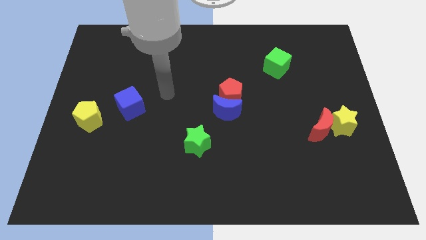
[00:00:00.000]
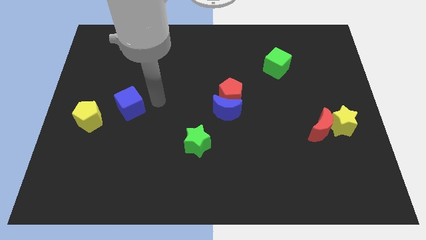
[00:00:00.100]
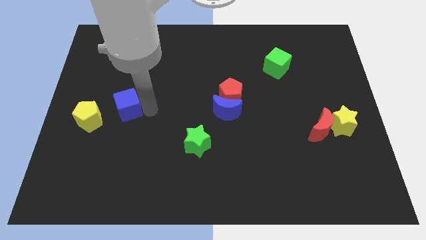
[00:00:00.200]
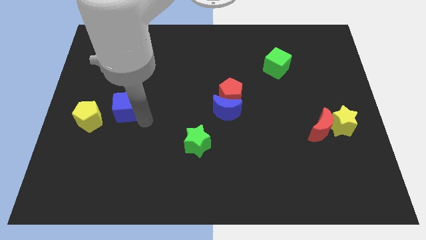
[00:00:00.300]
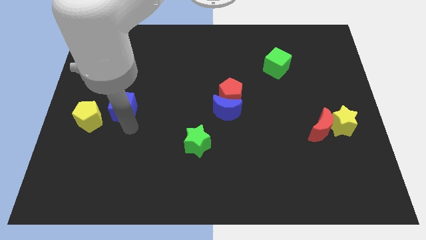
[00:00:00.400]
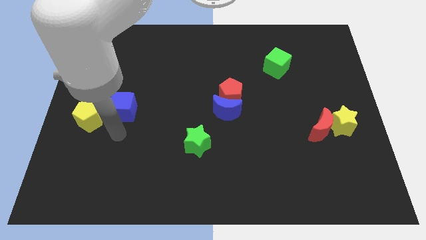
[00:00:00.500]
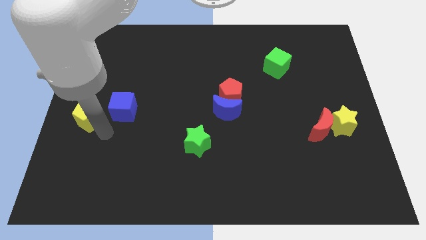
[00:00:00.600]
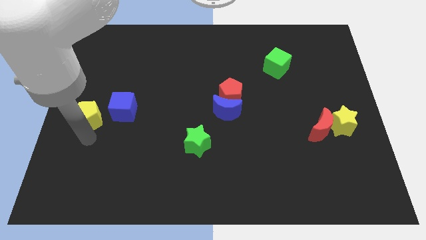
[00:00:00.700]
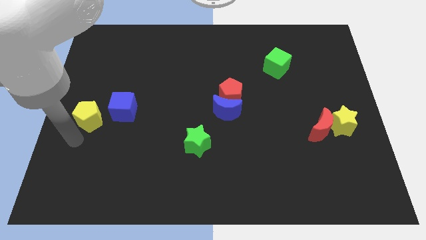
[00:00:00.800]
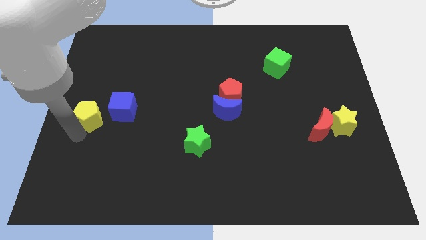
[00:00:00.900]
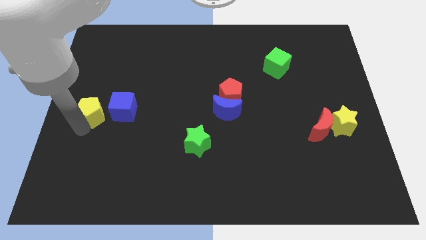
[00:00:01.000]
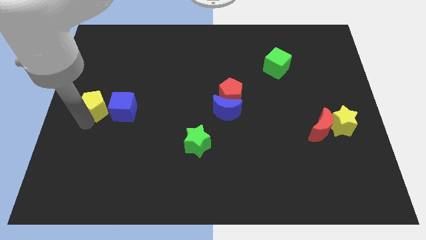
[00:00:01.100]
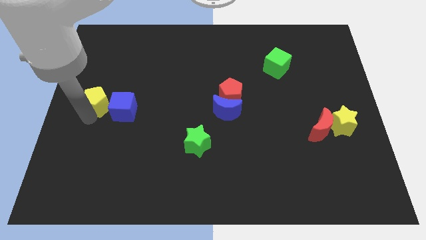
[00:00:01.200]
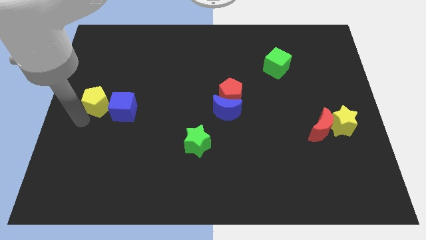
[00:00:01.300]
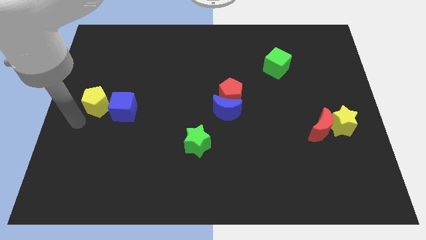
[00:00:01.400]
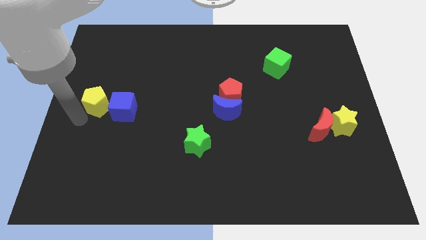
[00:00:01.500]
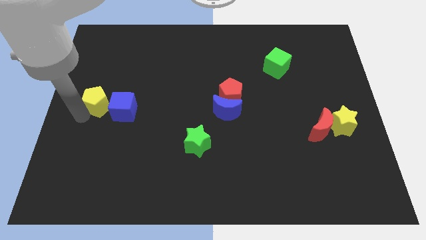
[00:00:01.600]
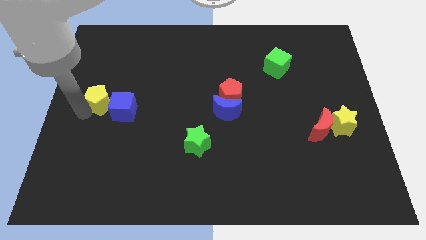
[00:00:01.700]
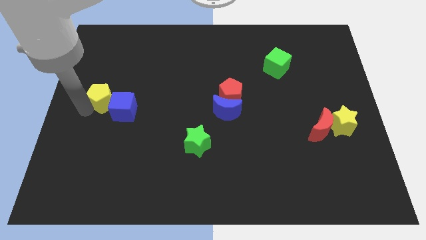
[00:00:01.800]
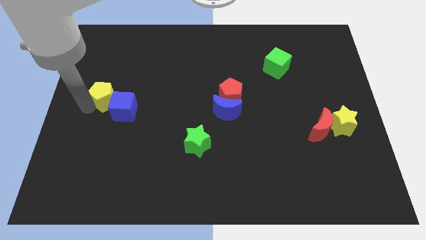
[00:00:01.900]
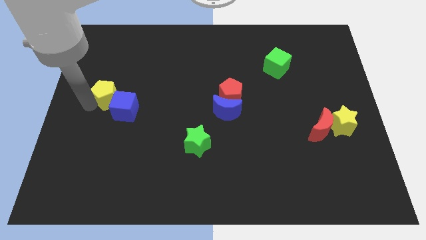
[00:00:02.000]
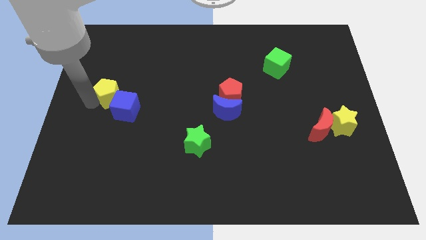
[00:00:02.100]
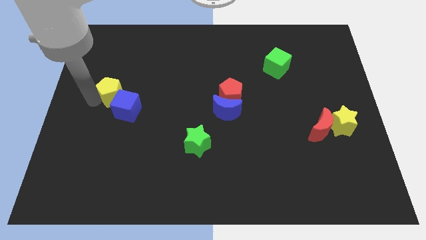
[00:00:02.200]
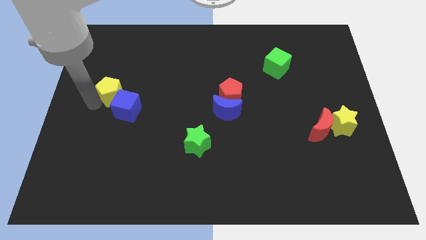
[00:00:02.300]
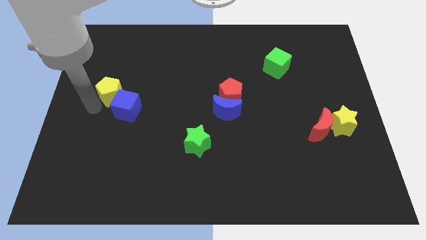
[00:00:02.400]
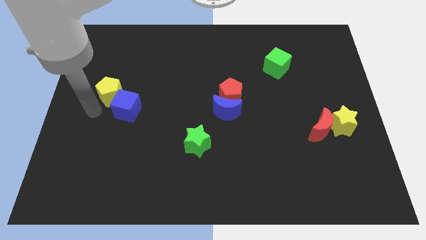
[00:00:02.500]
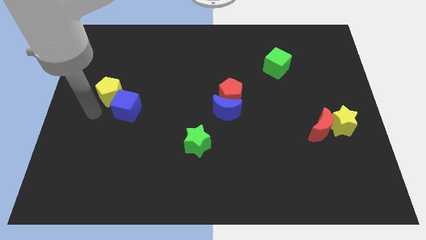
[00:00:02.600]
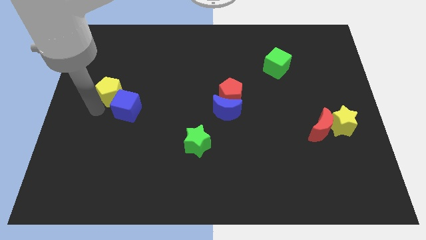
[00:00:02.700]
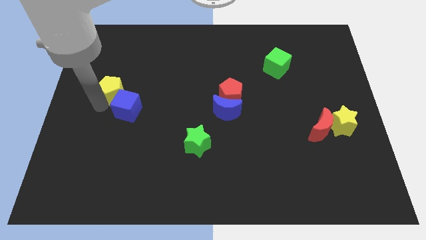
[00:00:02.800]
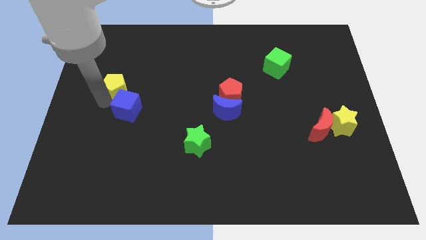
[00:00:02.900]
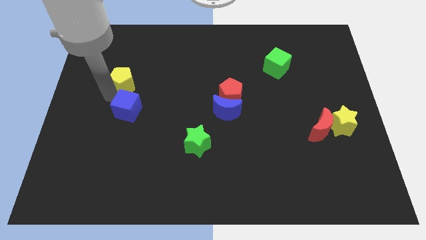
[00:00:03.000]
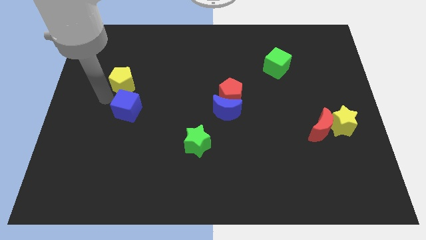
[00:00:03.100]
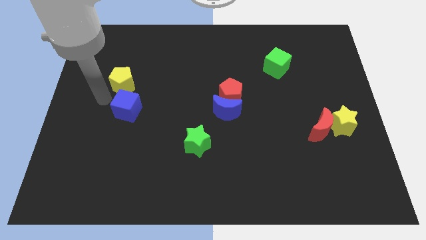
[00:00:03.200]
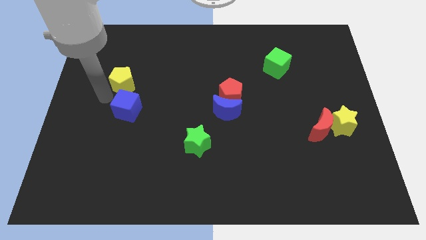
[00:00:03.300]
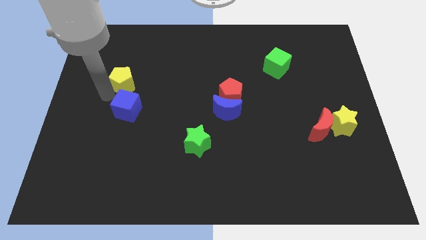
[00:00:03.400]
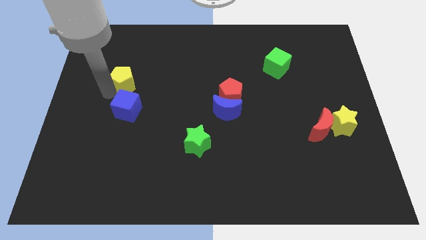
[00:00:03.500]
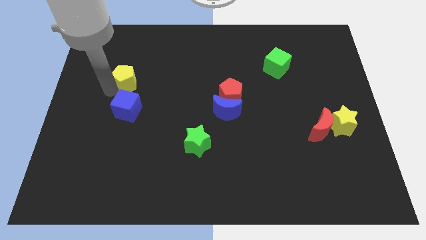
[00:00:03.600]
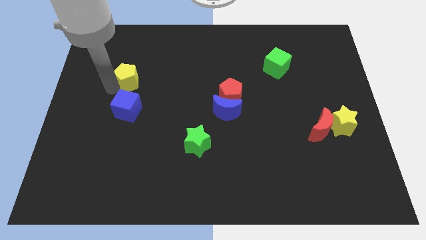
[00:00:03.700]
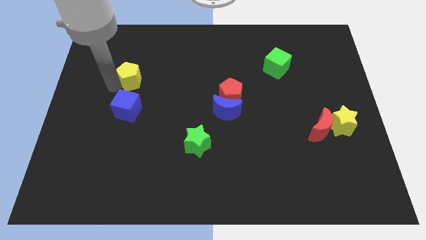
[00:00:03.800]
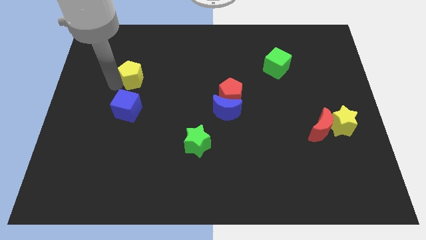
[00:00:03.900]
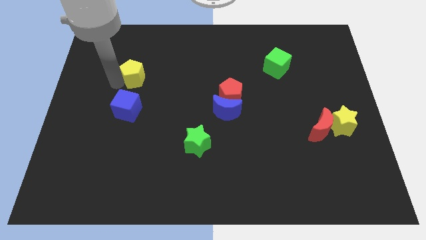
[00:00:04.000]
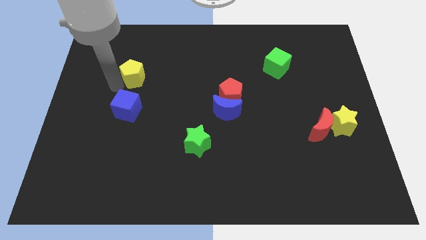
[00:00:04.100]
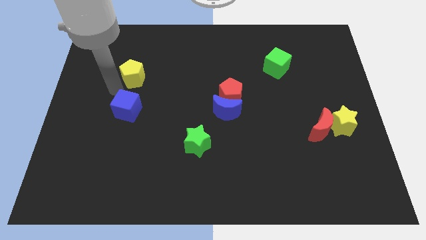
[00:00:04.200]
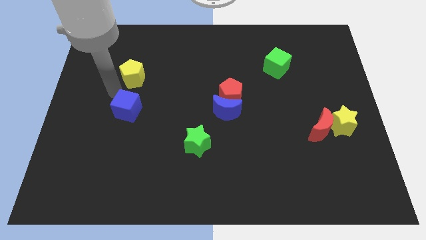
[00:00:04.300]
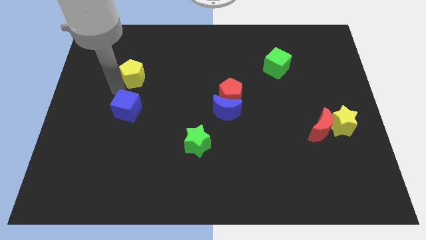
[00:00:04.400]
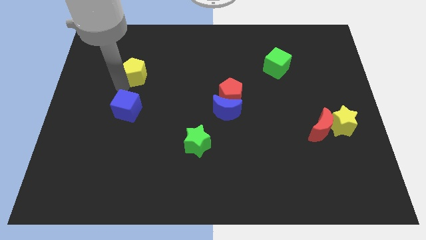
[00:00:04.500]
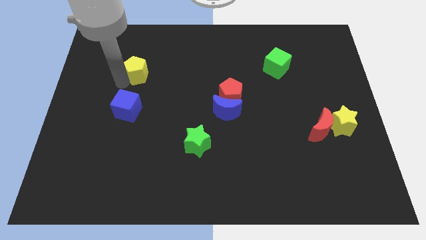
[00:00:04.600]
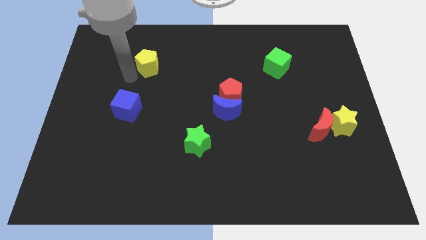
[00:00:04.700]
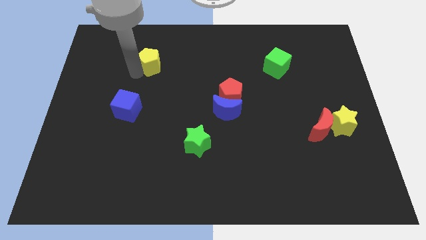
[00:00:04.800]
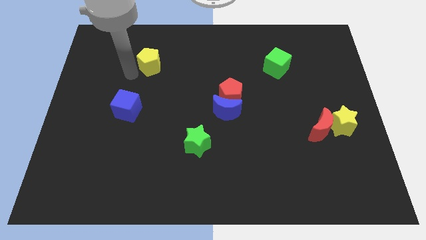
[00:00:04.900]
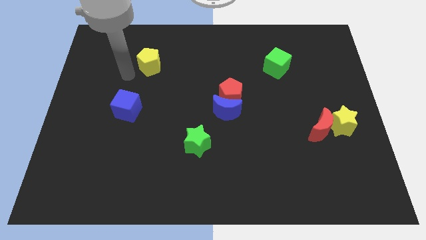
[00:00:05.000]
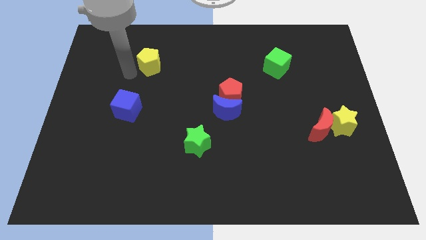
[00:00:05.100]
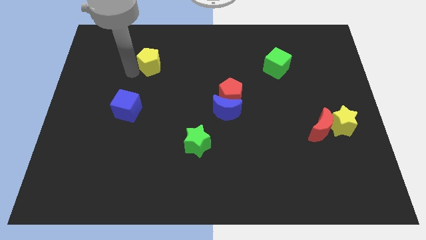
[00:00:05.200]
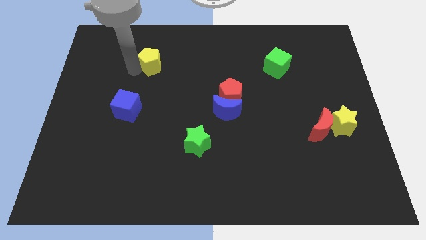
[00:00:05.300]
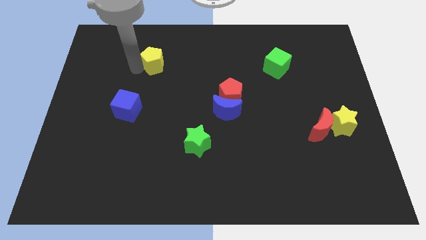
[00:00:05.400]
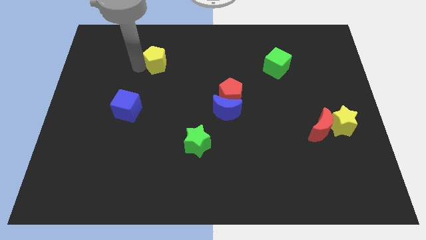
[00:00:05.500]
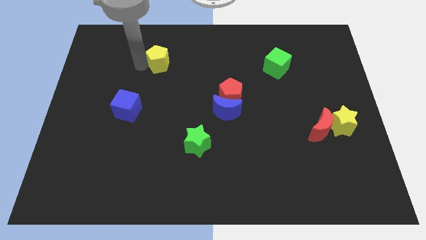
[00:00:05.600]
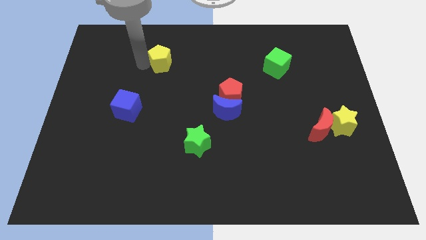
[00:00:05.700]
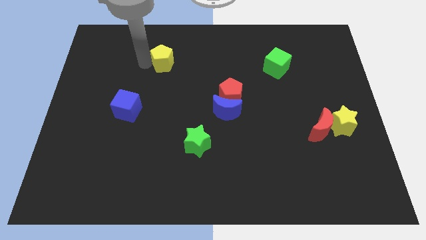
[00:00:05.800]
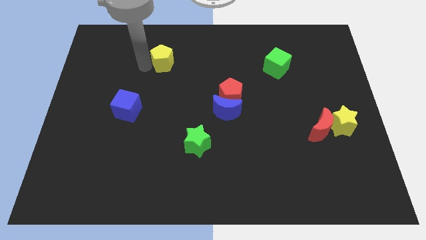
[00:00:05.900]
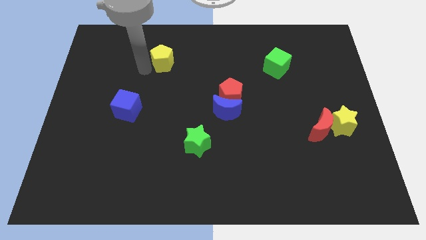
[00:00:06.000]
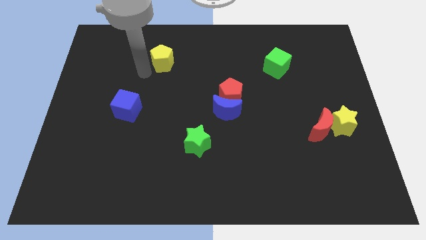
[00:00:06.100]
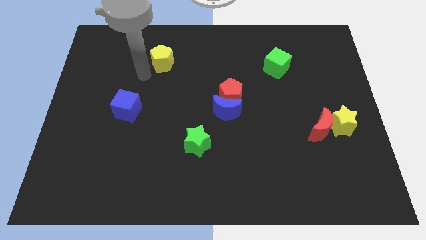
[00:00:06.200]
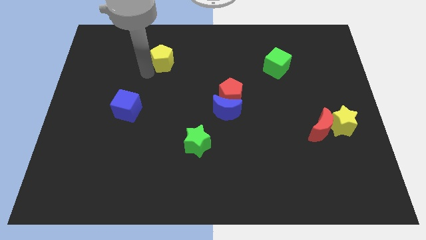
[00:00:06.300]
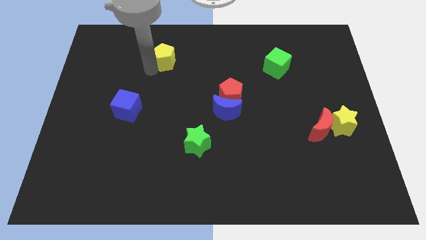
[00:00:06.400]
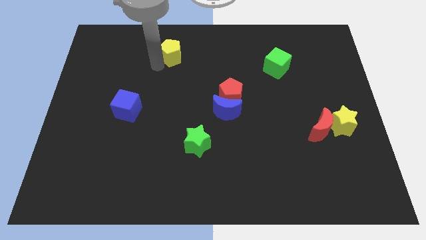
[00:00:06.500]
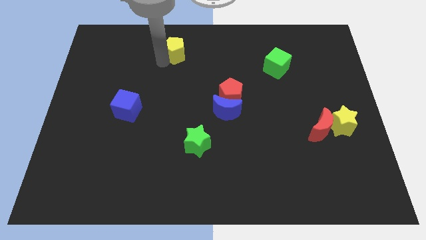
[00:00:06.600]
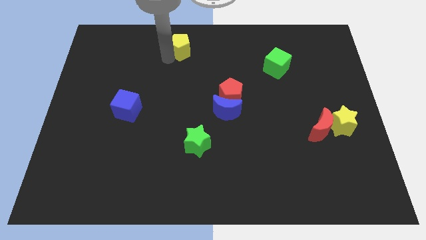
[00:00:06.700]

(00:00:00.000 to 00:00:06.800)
put the yellow pentagon to the towards your base
